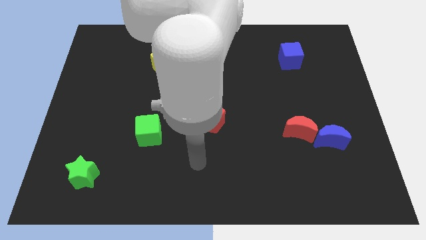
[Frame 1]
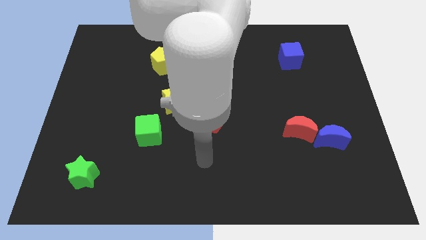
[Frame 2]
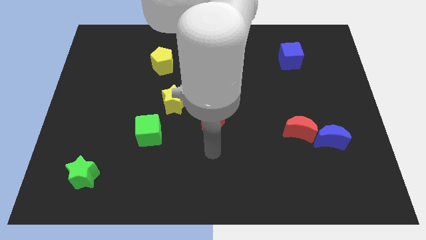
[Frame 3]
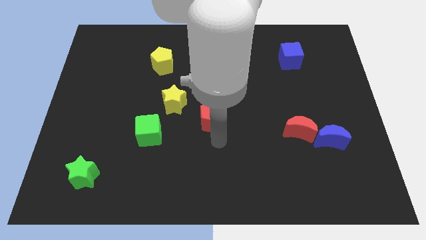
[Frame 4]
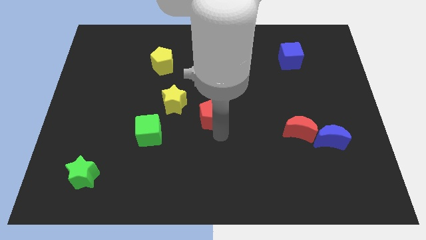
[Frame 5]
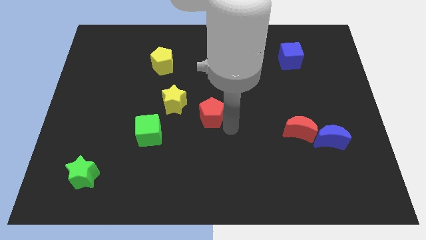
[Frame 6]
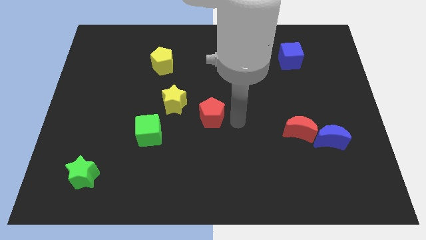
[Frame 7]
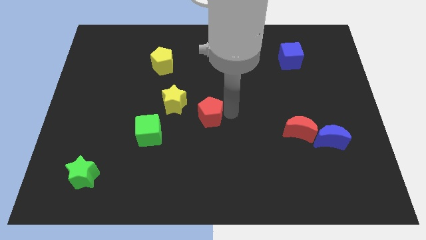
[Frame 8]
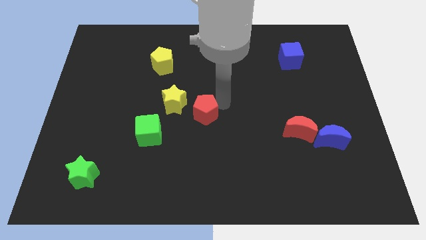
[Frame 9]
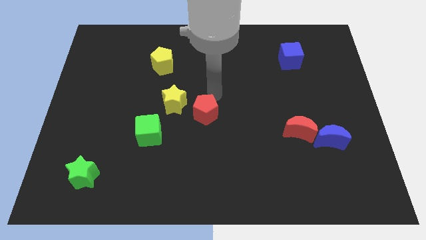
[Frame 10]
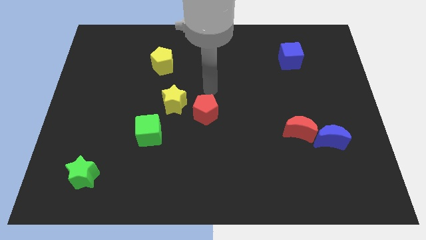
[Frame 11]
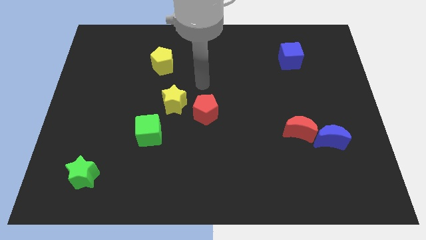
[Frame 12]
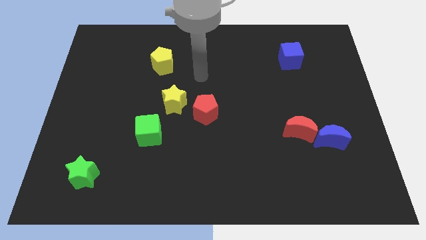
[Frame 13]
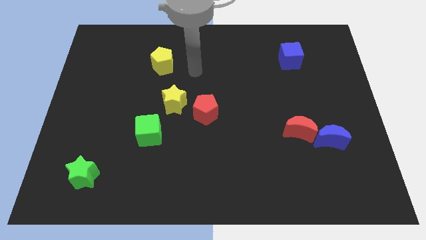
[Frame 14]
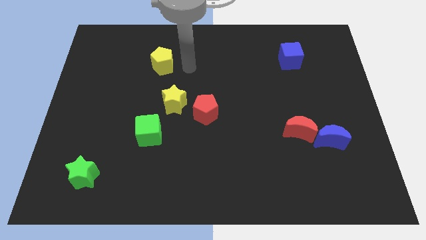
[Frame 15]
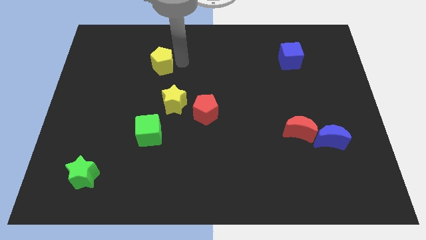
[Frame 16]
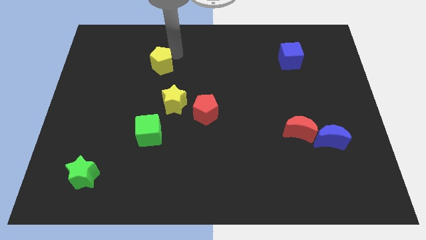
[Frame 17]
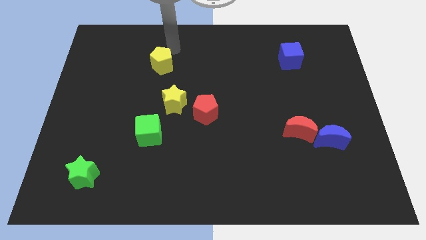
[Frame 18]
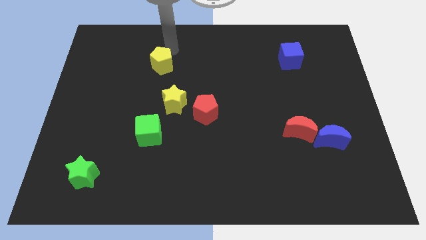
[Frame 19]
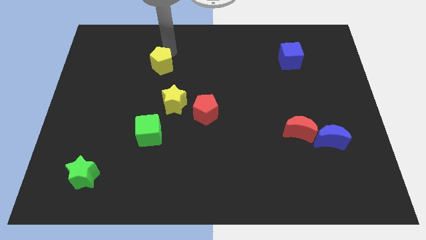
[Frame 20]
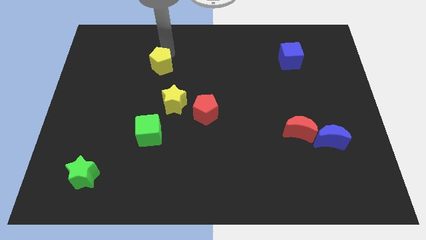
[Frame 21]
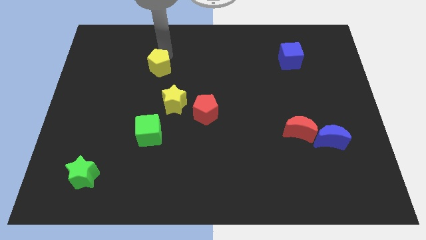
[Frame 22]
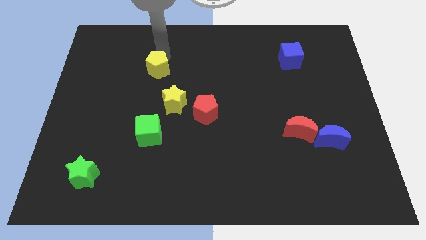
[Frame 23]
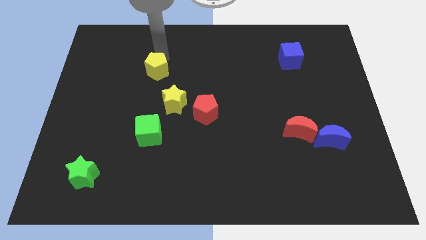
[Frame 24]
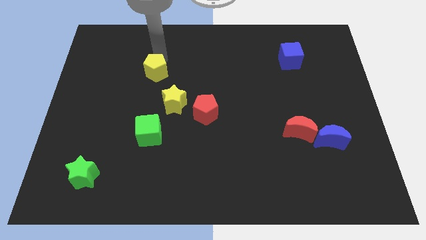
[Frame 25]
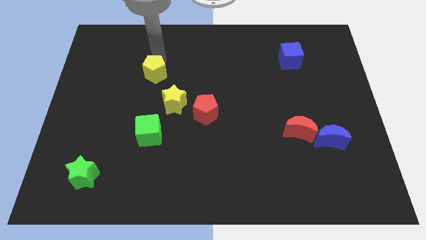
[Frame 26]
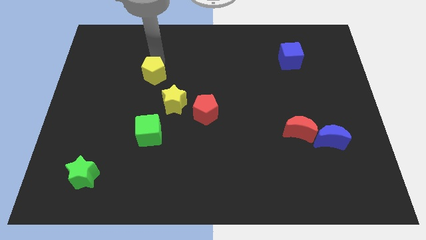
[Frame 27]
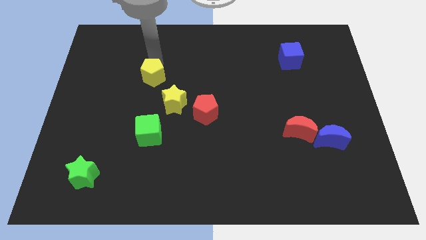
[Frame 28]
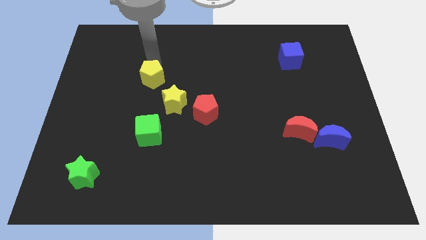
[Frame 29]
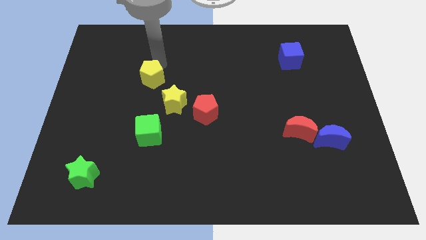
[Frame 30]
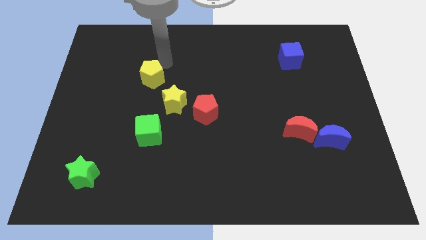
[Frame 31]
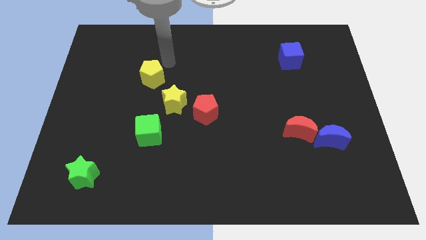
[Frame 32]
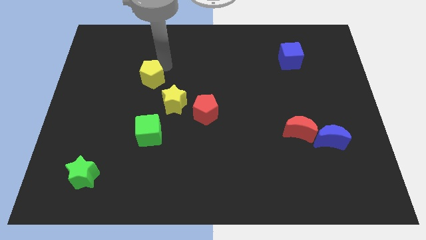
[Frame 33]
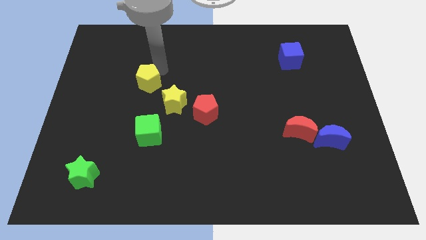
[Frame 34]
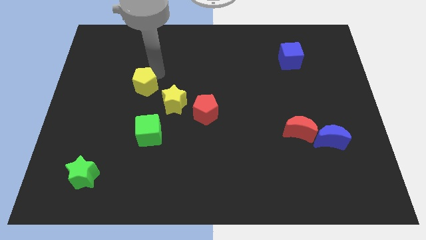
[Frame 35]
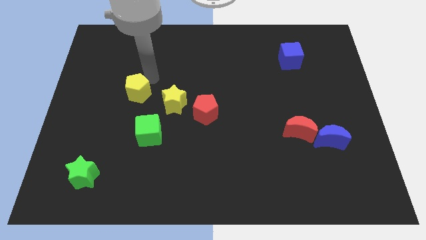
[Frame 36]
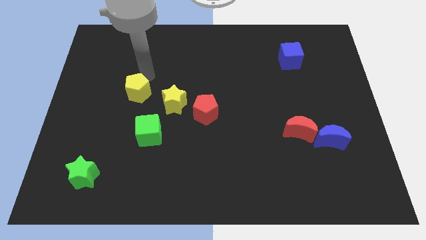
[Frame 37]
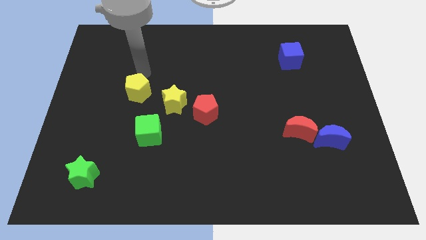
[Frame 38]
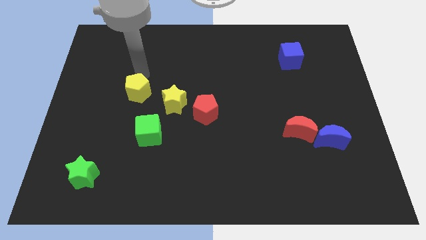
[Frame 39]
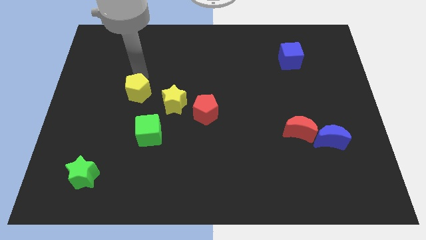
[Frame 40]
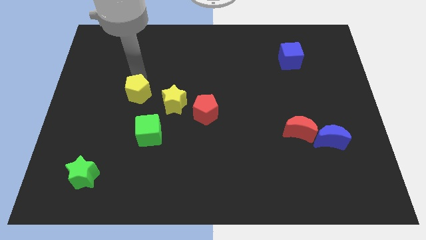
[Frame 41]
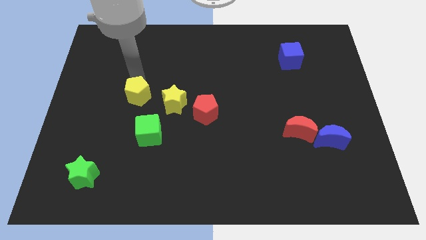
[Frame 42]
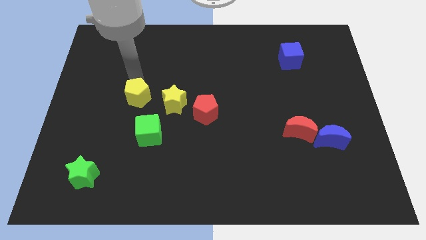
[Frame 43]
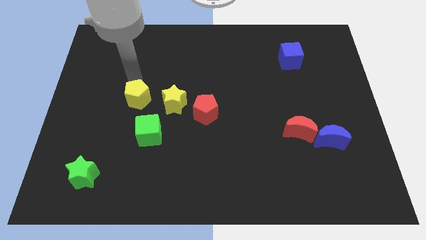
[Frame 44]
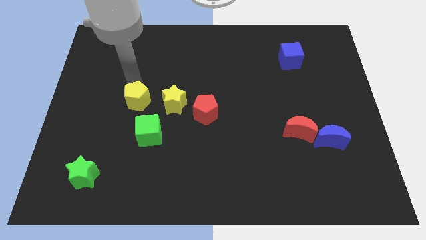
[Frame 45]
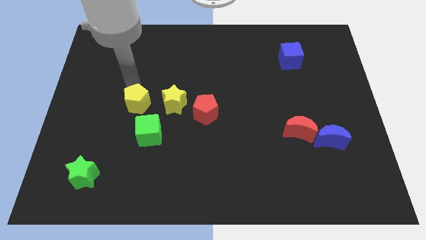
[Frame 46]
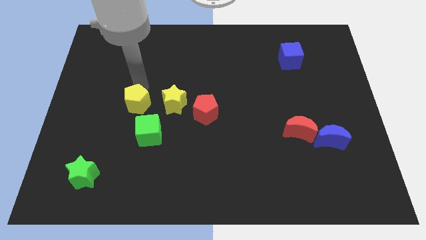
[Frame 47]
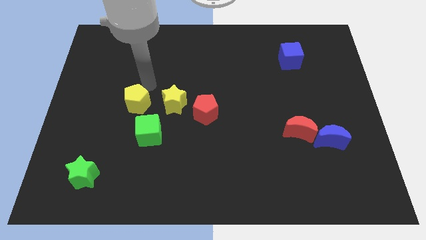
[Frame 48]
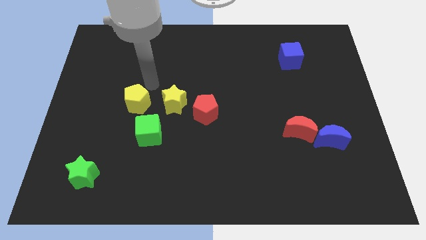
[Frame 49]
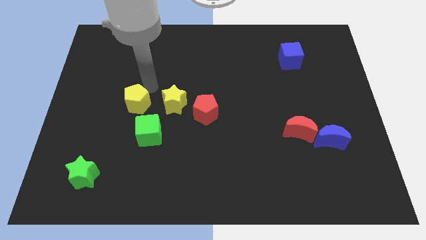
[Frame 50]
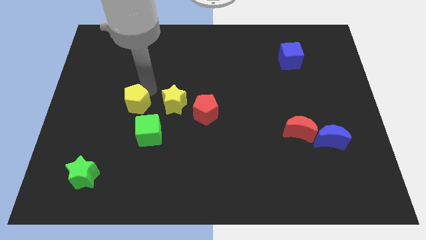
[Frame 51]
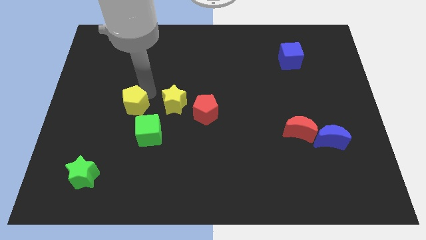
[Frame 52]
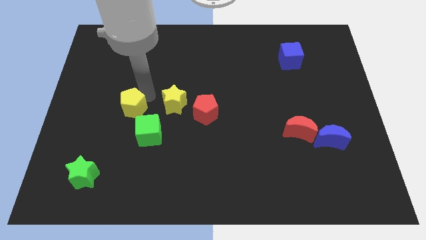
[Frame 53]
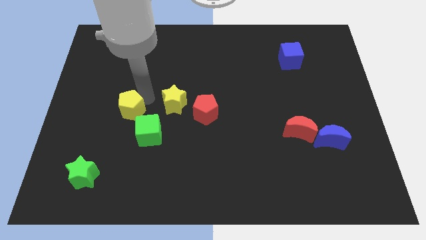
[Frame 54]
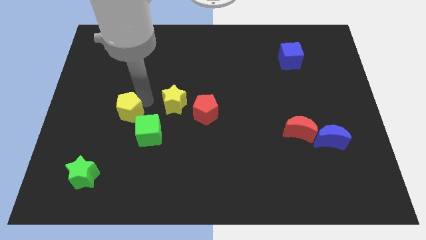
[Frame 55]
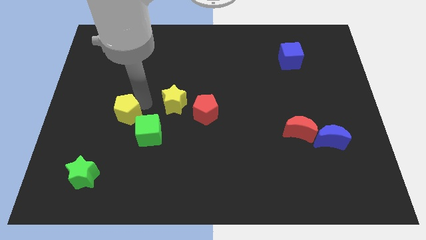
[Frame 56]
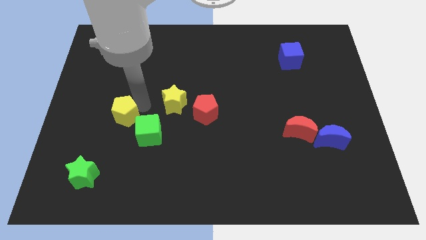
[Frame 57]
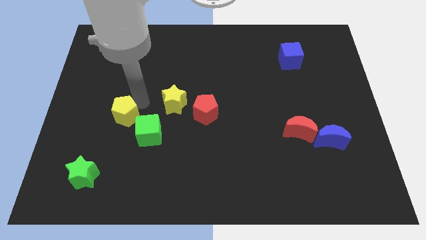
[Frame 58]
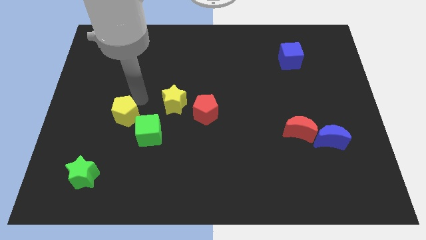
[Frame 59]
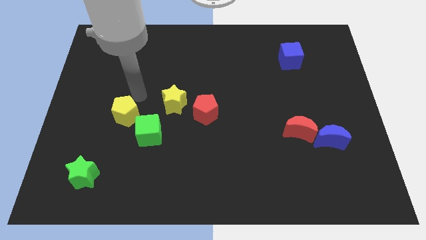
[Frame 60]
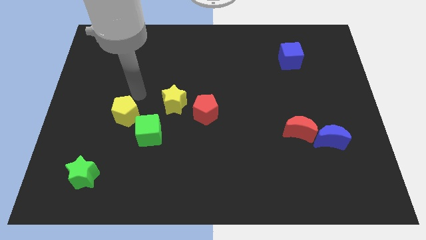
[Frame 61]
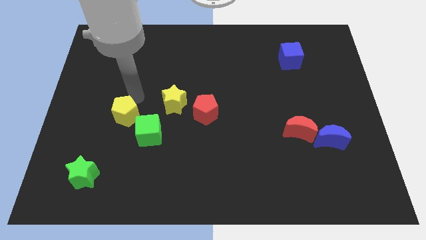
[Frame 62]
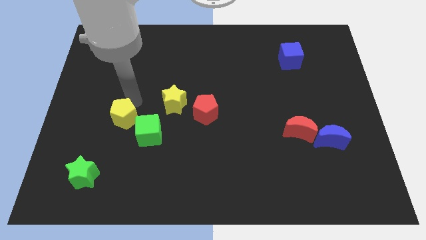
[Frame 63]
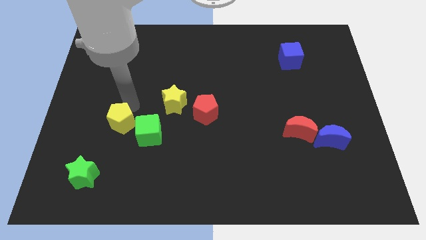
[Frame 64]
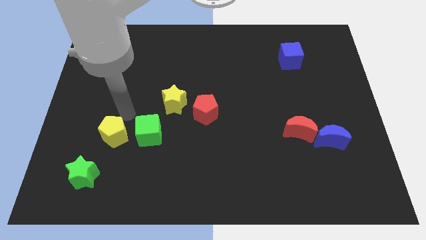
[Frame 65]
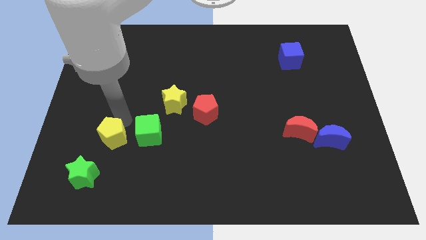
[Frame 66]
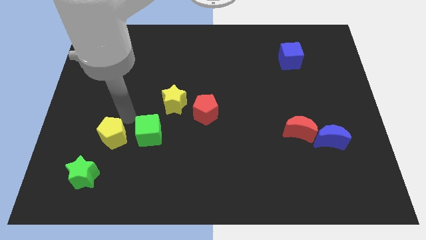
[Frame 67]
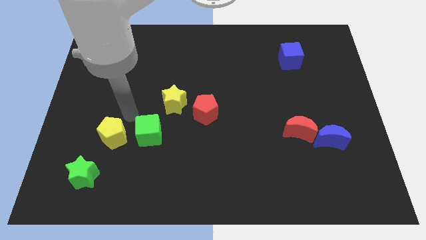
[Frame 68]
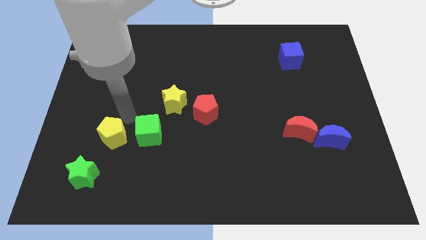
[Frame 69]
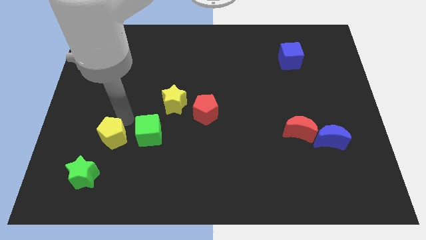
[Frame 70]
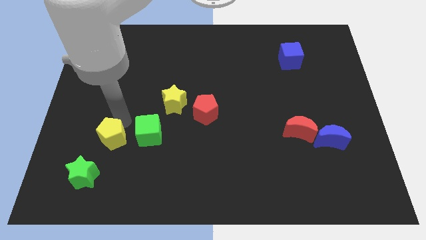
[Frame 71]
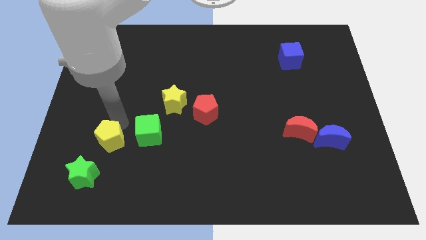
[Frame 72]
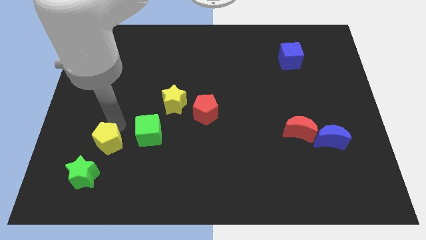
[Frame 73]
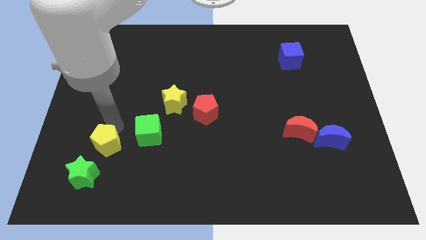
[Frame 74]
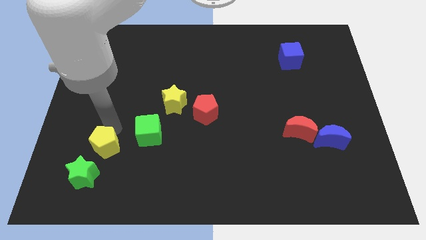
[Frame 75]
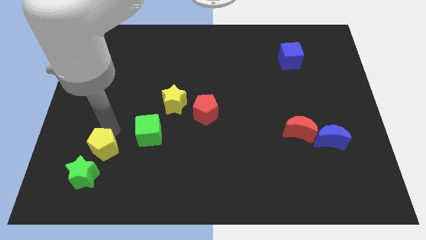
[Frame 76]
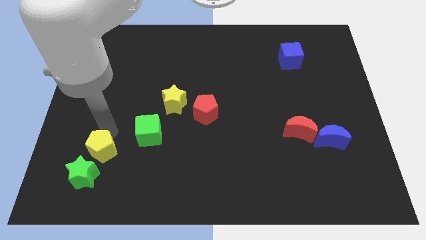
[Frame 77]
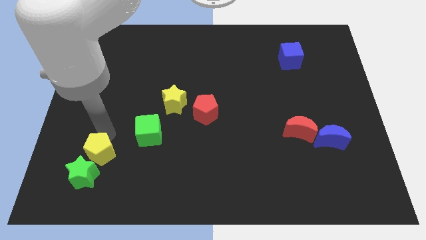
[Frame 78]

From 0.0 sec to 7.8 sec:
slide the yellow pentagon next to the green star
